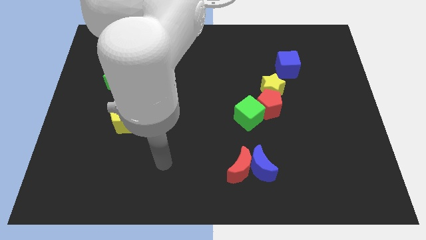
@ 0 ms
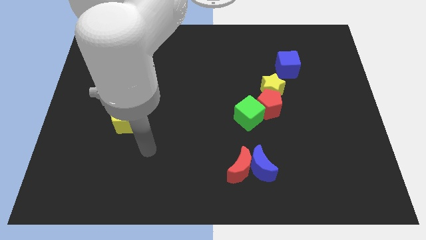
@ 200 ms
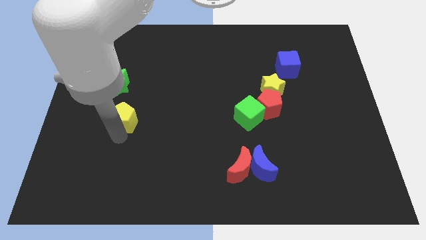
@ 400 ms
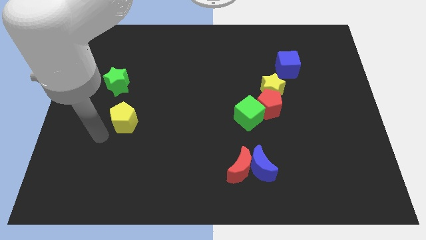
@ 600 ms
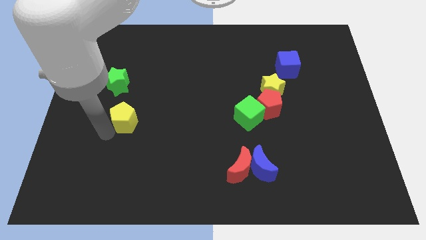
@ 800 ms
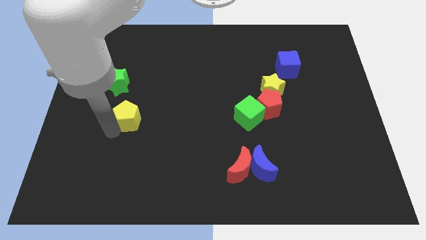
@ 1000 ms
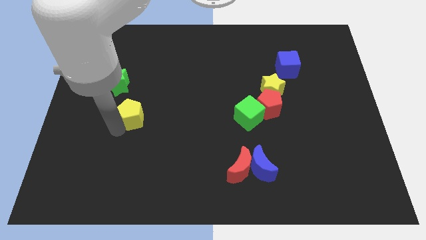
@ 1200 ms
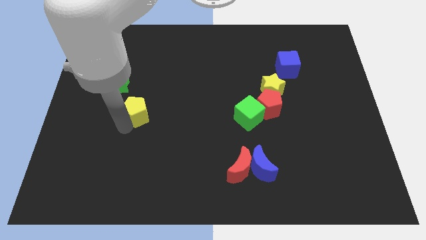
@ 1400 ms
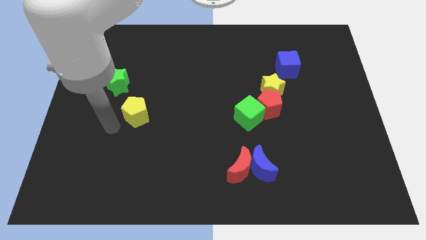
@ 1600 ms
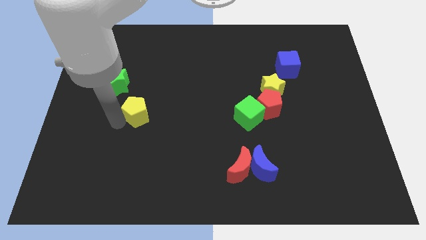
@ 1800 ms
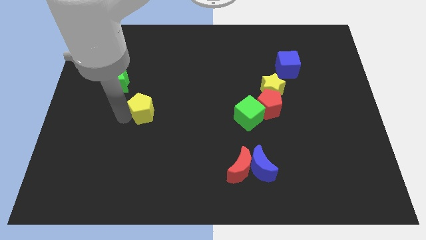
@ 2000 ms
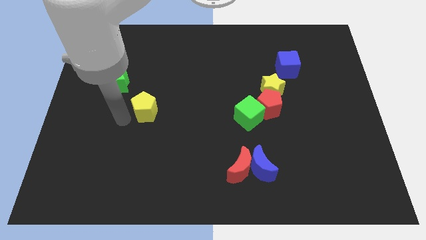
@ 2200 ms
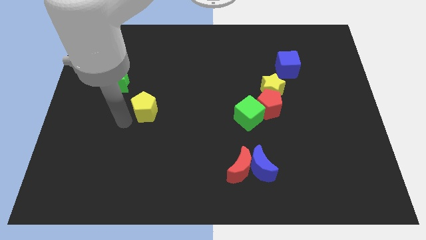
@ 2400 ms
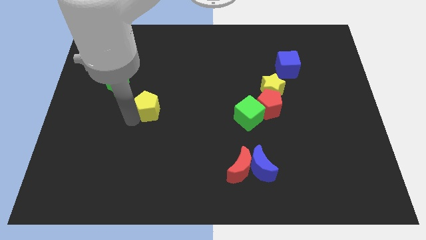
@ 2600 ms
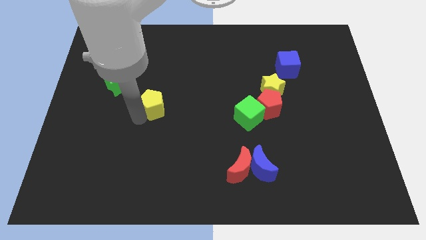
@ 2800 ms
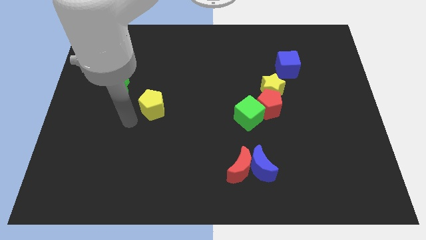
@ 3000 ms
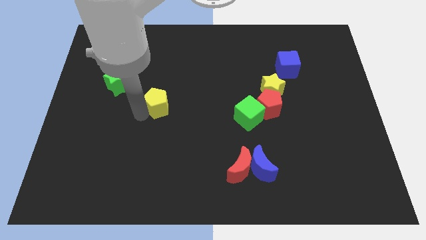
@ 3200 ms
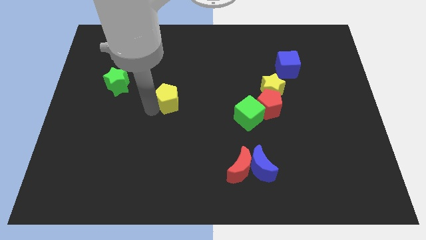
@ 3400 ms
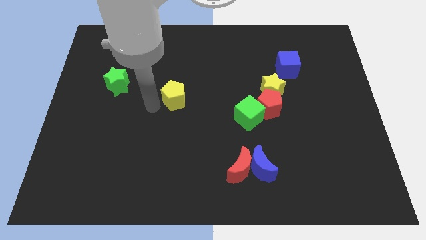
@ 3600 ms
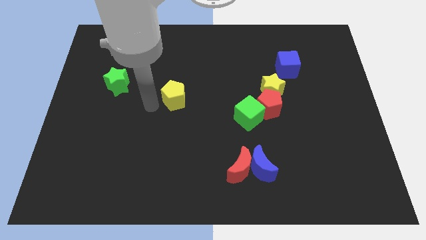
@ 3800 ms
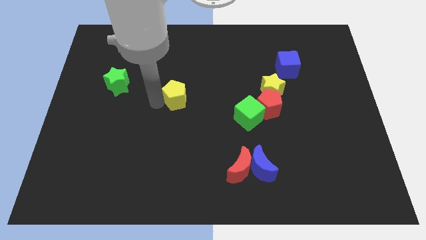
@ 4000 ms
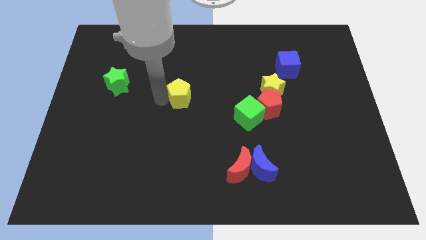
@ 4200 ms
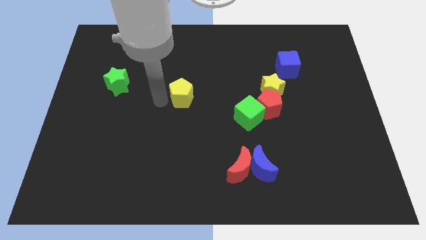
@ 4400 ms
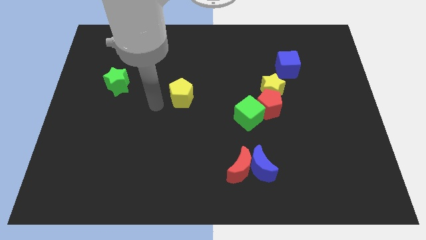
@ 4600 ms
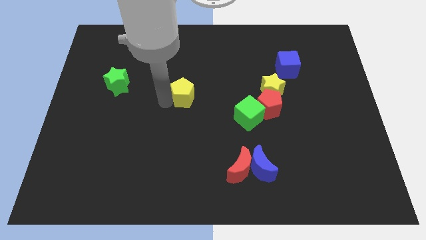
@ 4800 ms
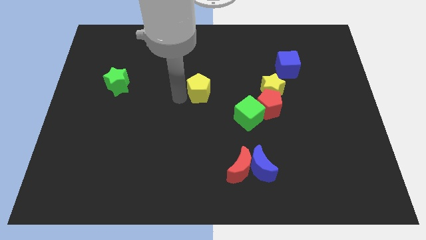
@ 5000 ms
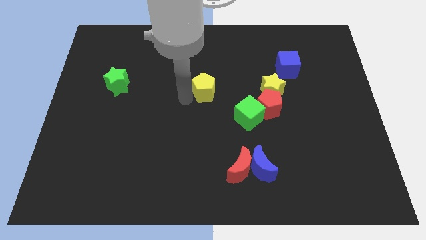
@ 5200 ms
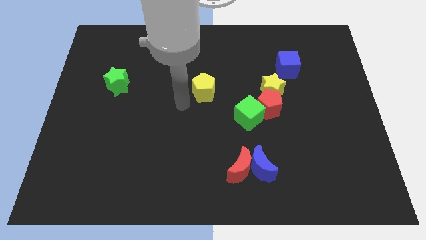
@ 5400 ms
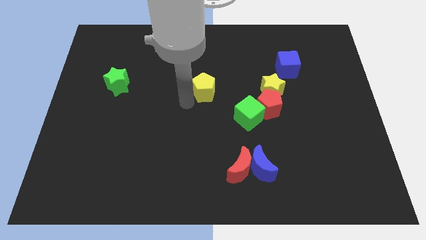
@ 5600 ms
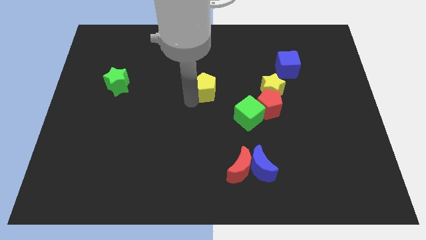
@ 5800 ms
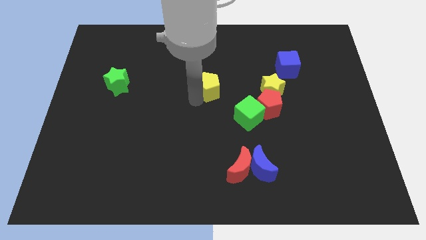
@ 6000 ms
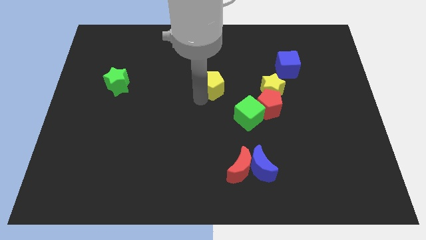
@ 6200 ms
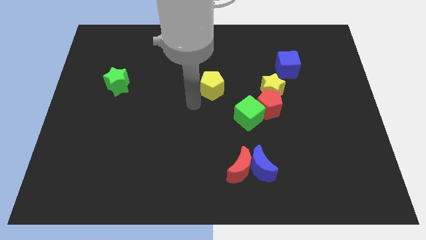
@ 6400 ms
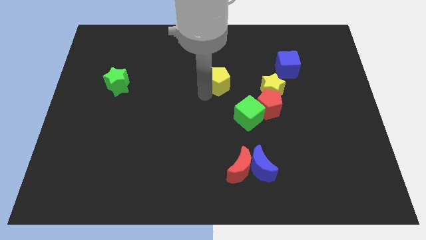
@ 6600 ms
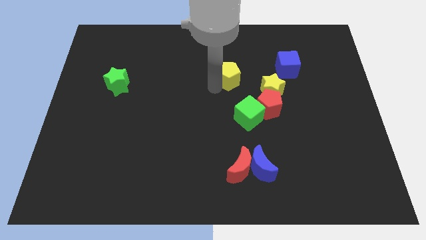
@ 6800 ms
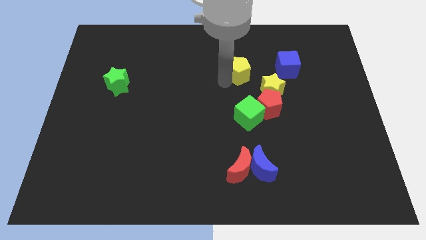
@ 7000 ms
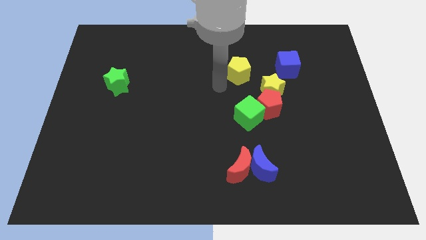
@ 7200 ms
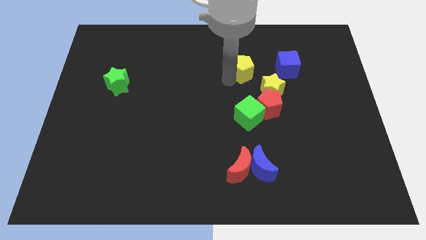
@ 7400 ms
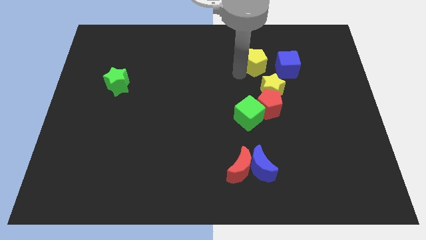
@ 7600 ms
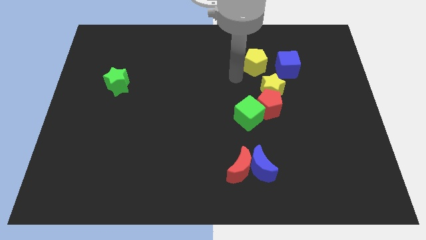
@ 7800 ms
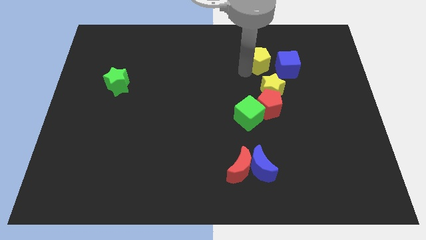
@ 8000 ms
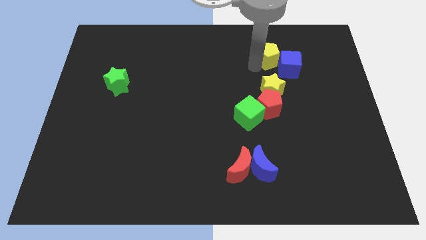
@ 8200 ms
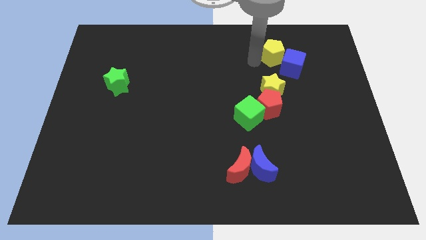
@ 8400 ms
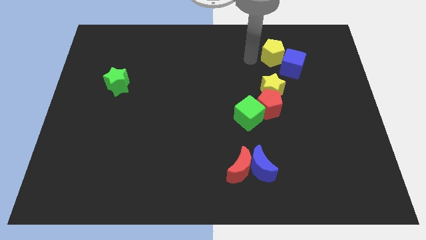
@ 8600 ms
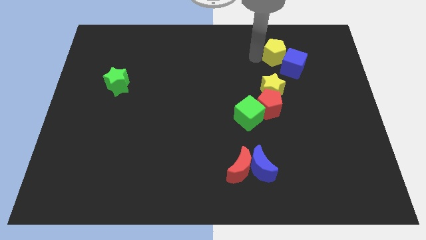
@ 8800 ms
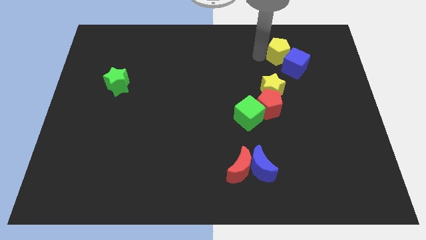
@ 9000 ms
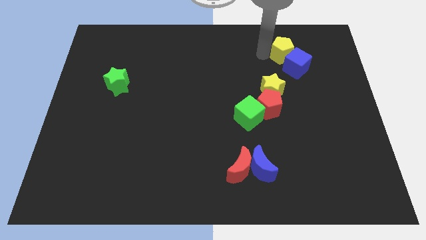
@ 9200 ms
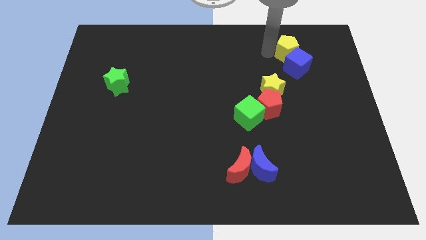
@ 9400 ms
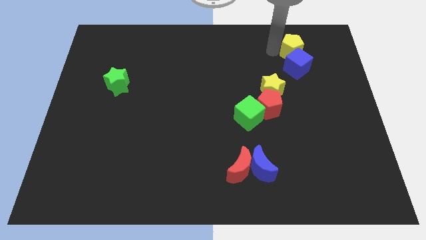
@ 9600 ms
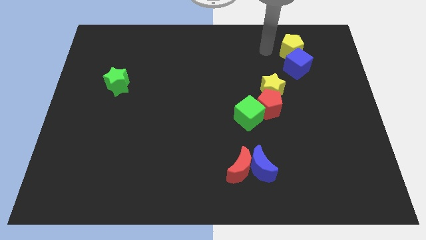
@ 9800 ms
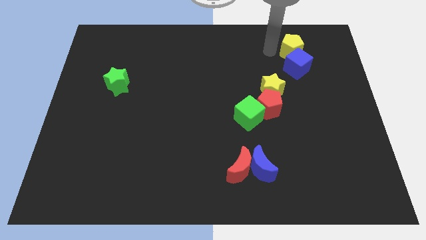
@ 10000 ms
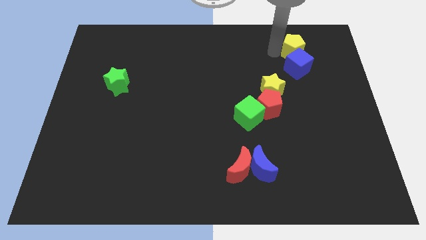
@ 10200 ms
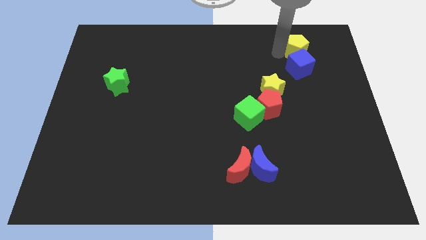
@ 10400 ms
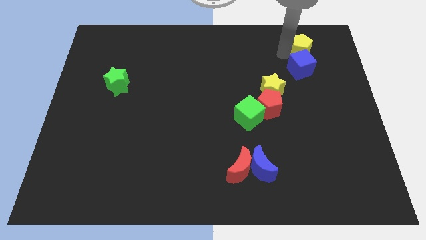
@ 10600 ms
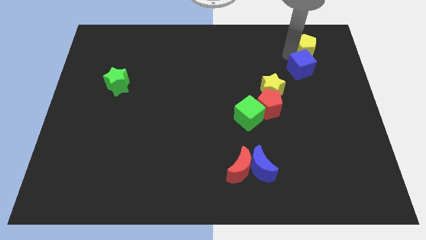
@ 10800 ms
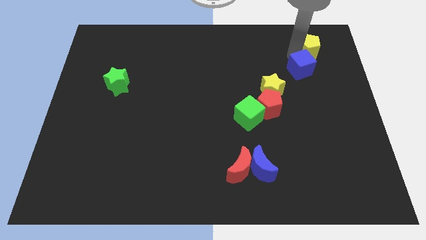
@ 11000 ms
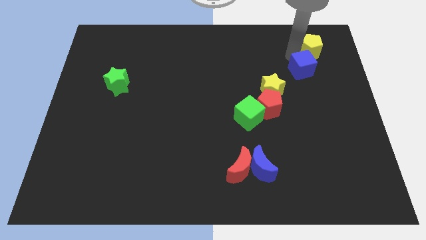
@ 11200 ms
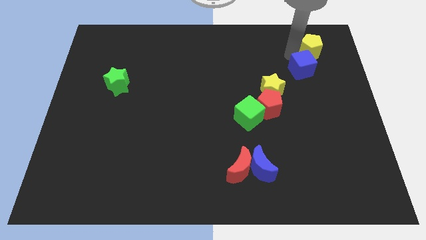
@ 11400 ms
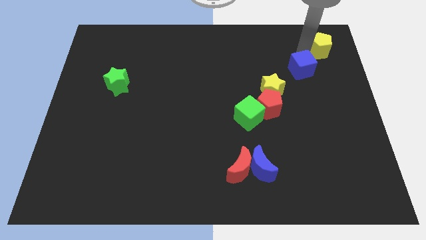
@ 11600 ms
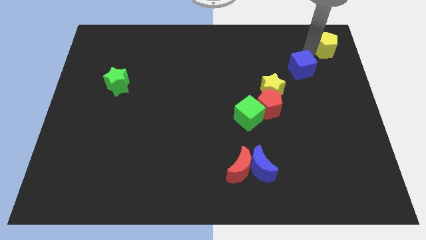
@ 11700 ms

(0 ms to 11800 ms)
put the yellow pentagon to the top right of the board

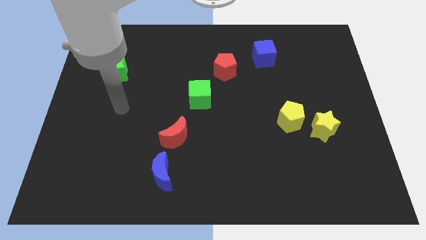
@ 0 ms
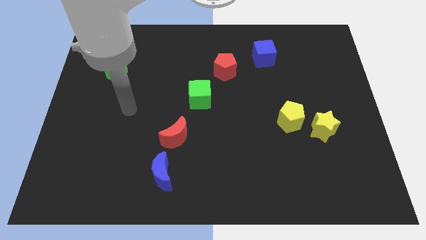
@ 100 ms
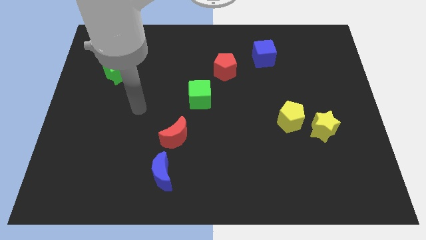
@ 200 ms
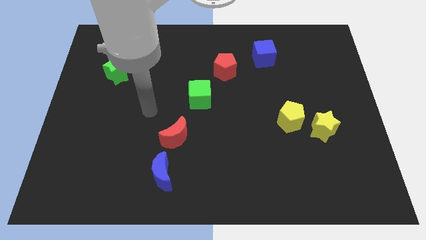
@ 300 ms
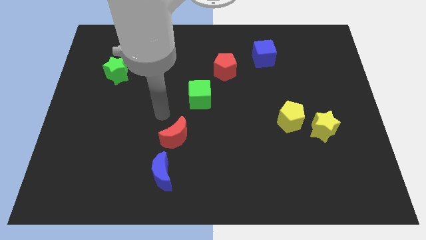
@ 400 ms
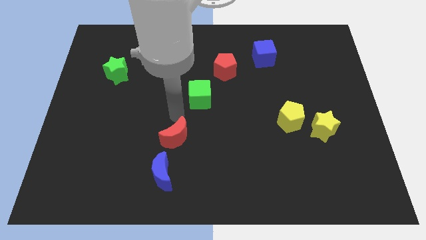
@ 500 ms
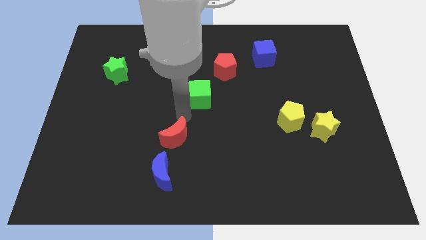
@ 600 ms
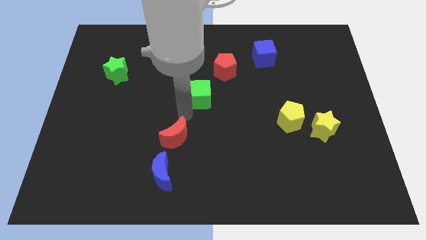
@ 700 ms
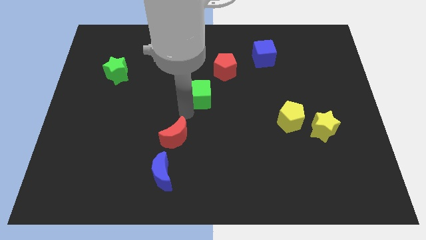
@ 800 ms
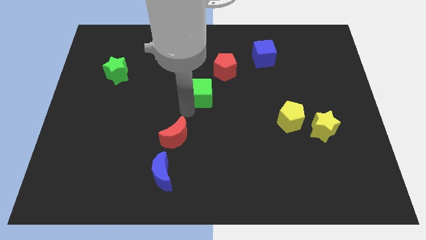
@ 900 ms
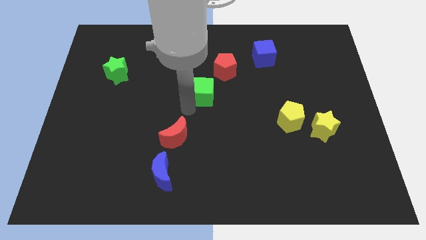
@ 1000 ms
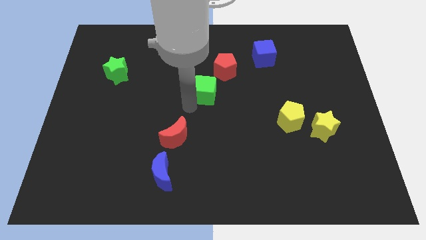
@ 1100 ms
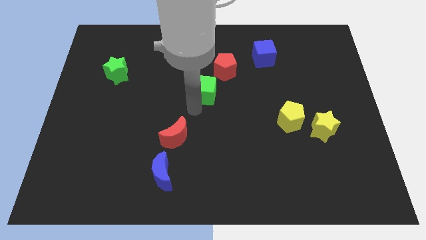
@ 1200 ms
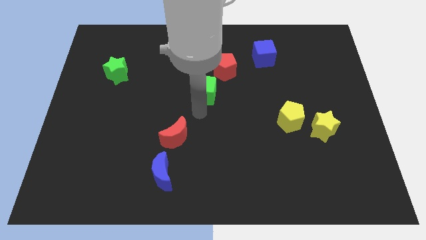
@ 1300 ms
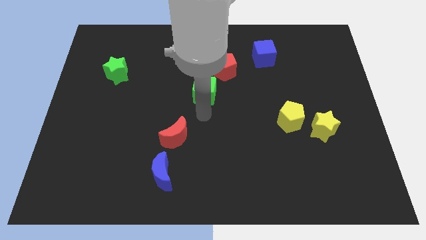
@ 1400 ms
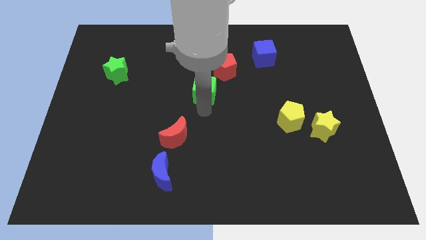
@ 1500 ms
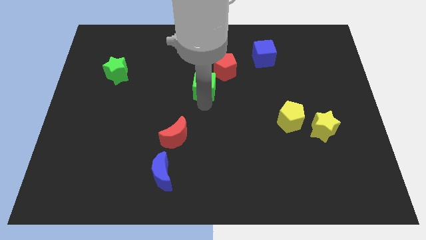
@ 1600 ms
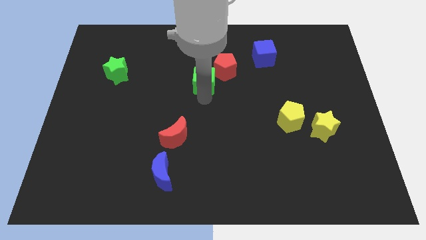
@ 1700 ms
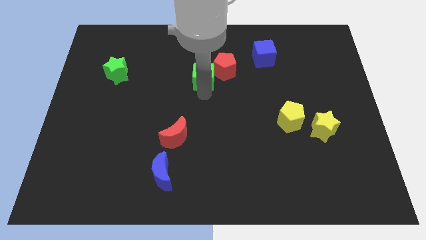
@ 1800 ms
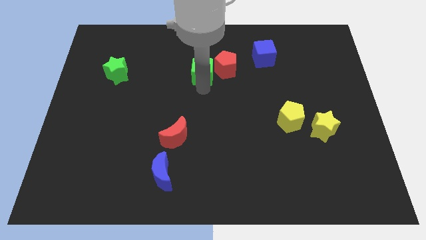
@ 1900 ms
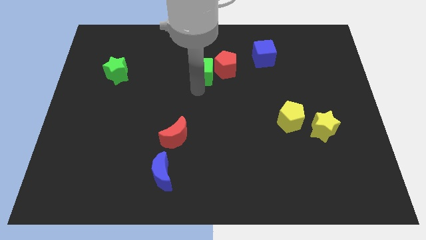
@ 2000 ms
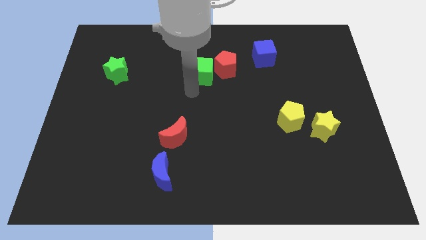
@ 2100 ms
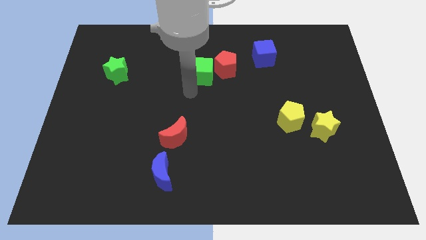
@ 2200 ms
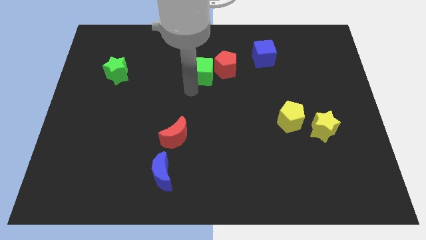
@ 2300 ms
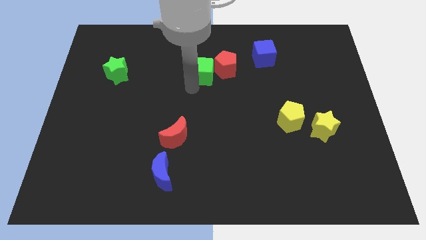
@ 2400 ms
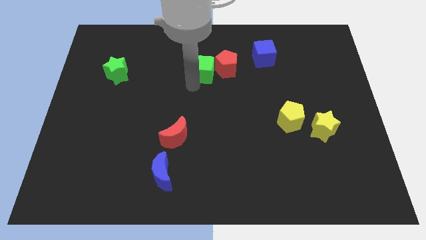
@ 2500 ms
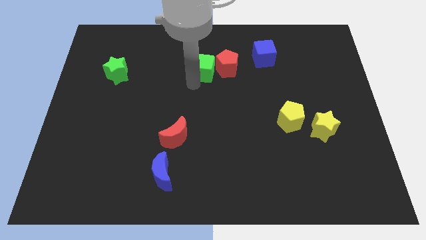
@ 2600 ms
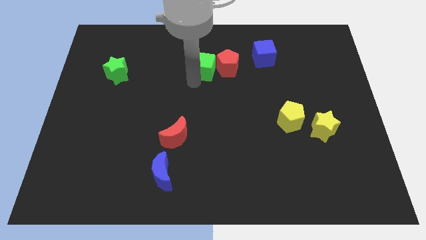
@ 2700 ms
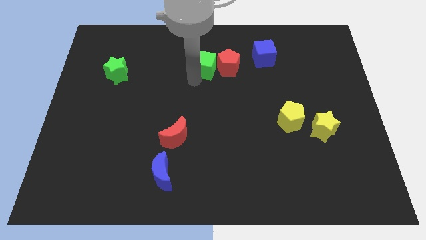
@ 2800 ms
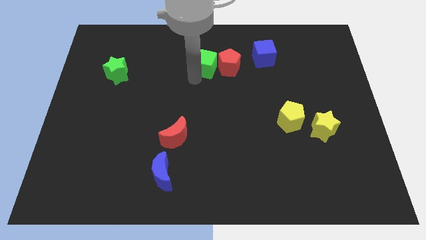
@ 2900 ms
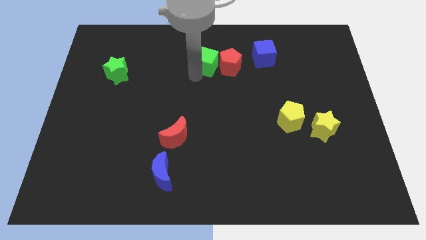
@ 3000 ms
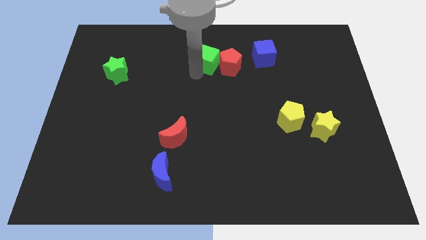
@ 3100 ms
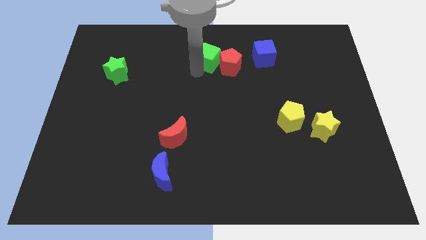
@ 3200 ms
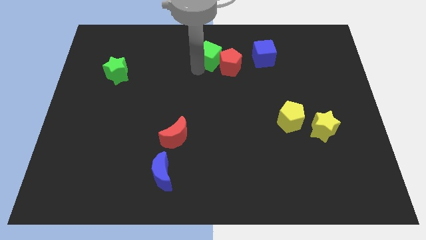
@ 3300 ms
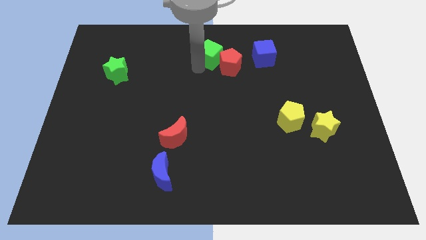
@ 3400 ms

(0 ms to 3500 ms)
put the green cube to the towards your base
